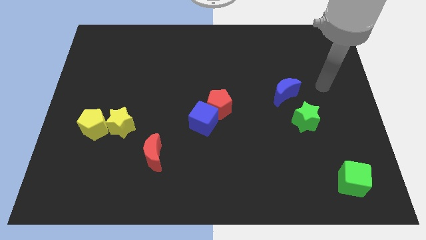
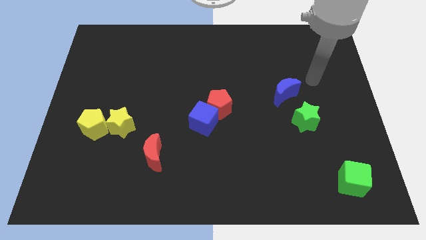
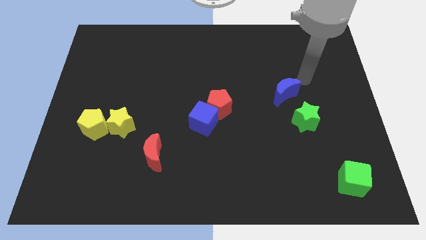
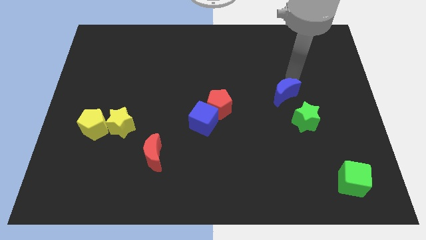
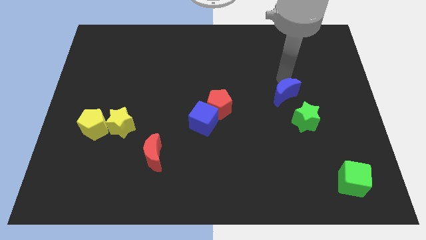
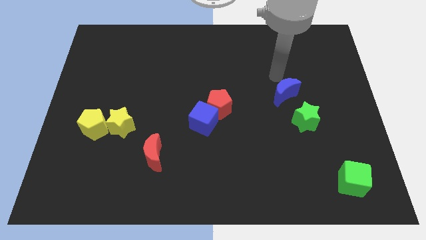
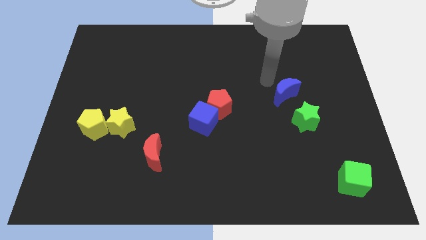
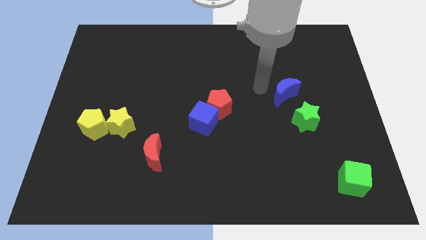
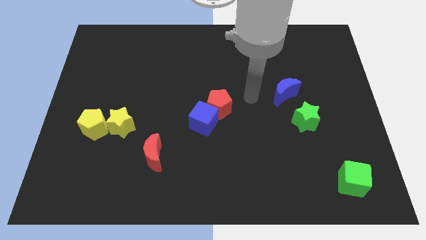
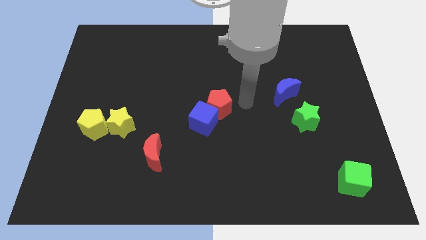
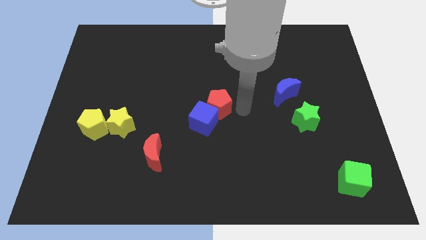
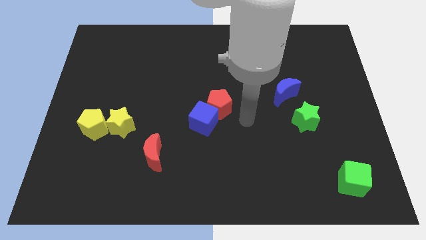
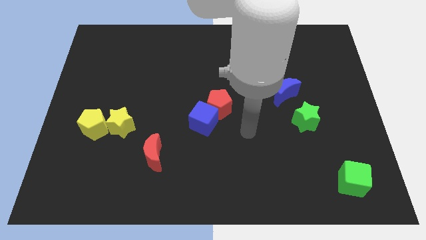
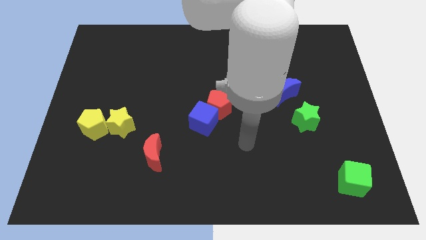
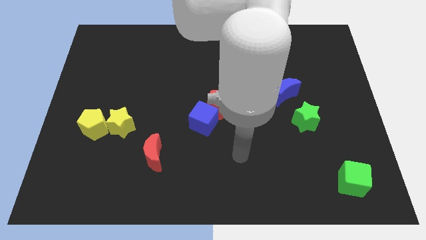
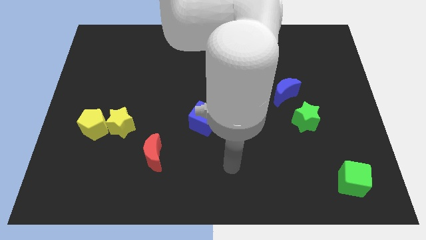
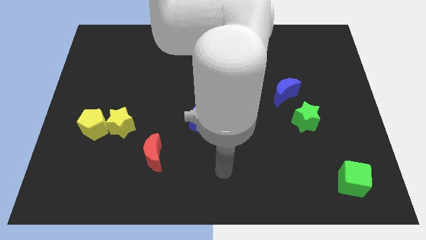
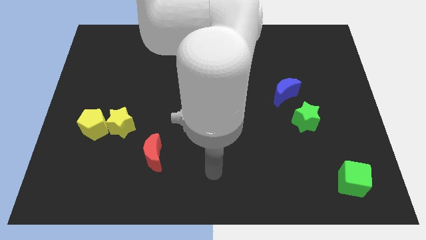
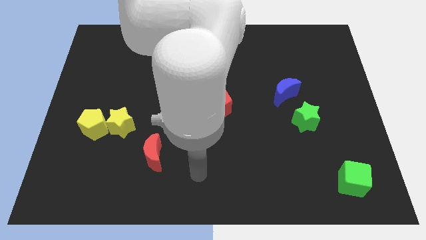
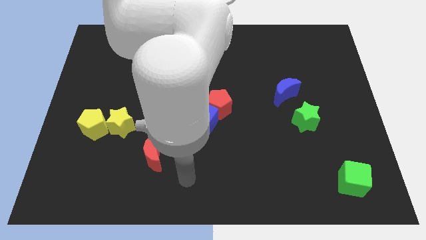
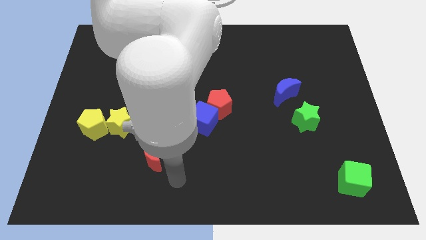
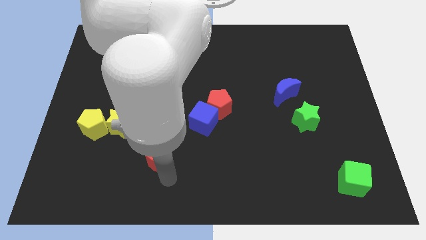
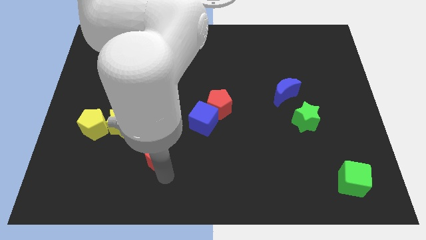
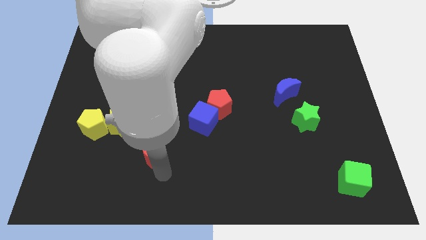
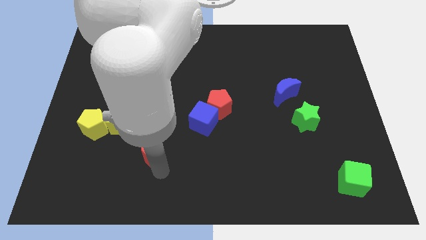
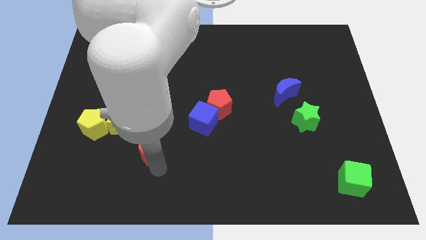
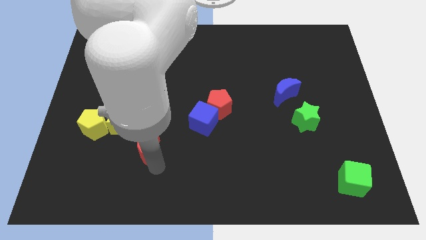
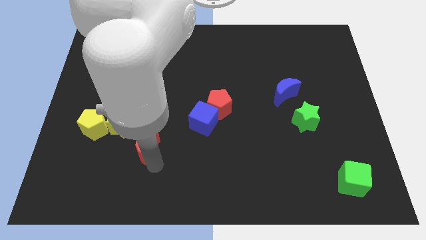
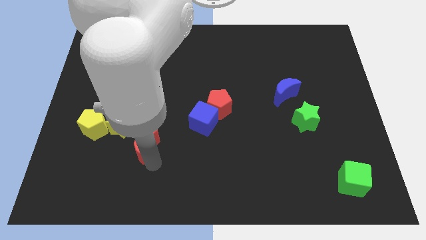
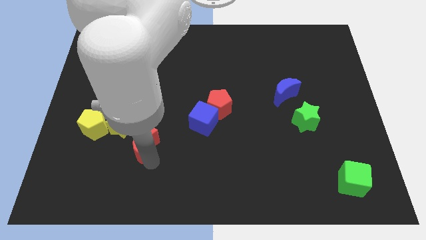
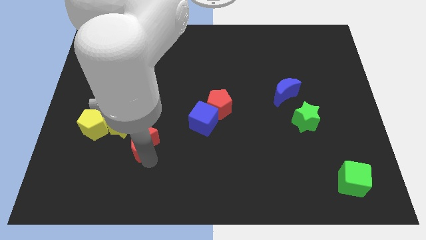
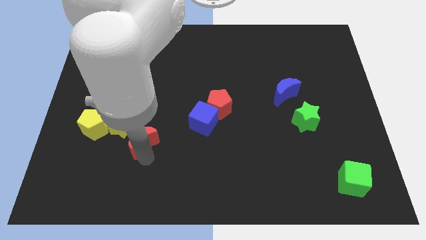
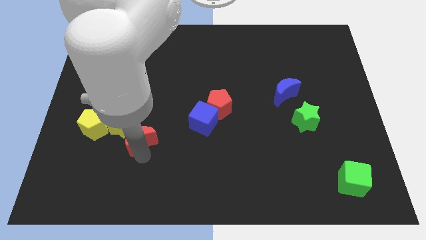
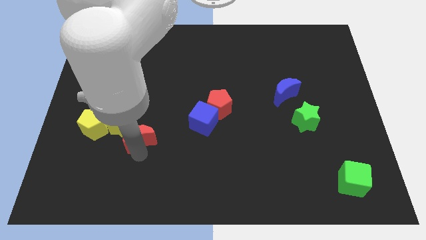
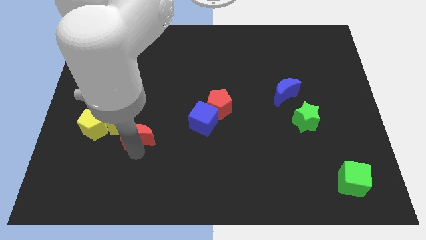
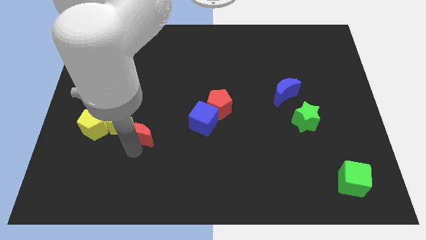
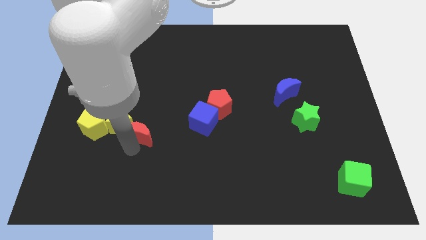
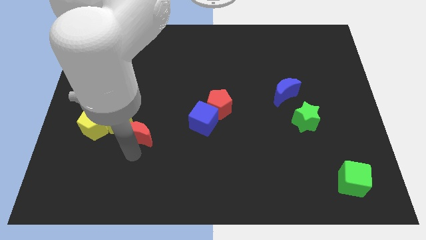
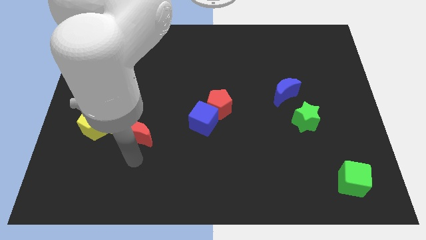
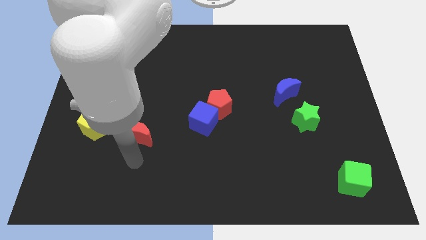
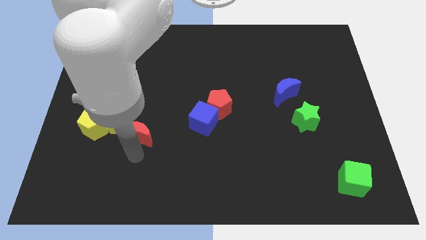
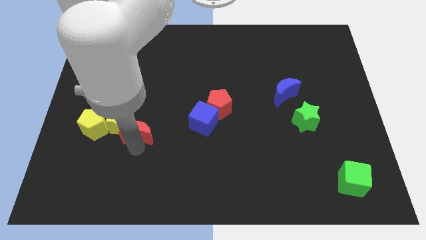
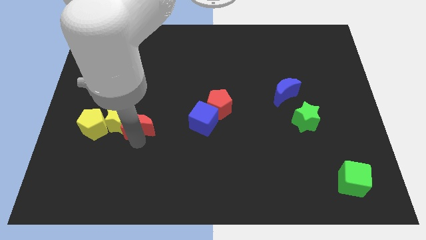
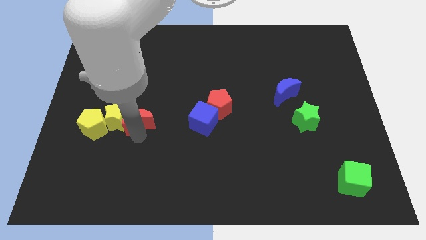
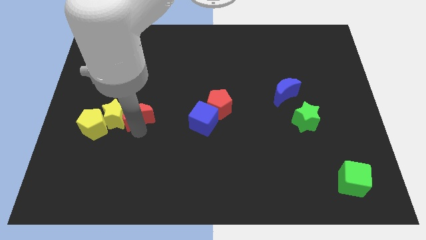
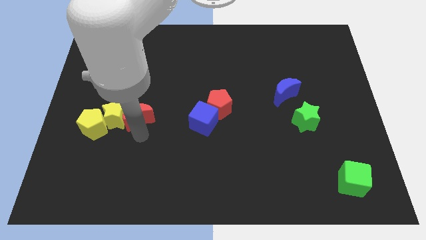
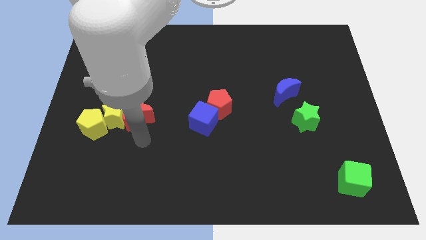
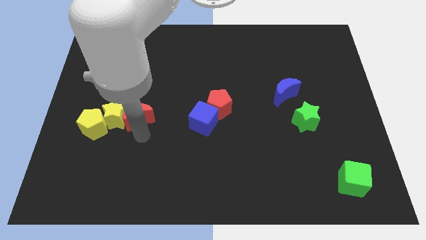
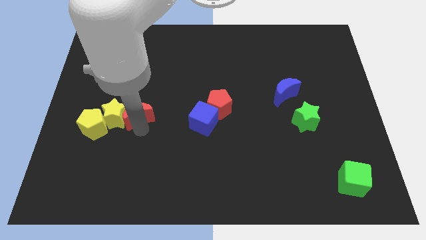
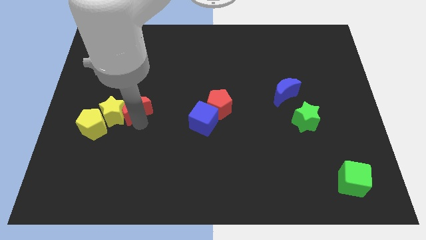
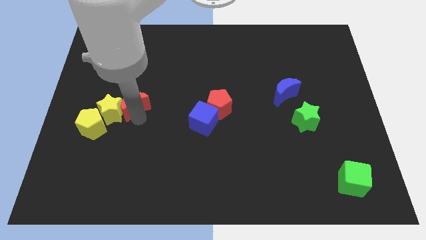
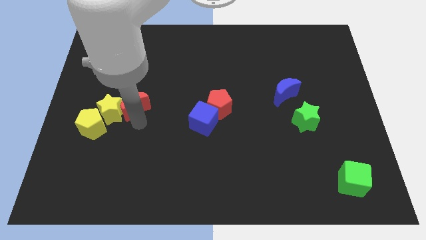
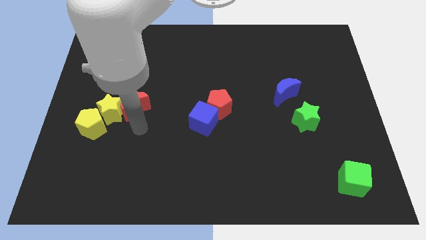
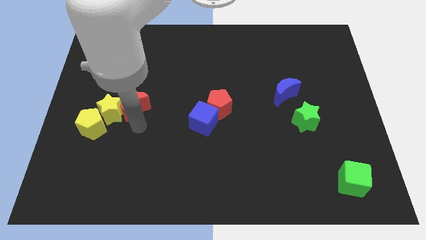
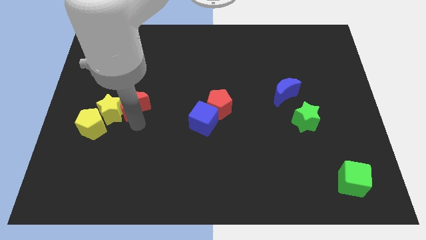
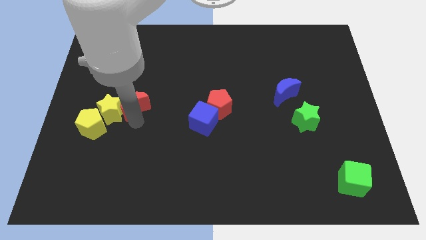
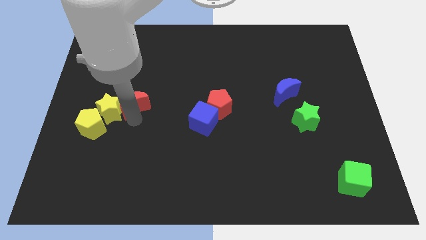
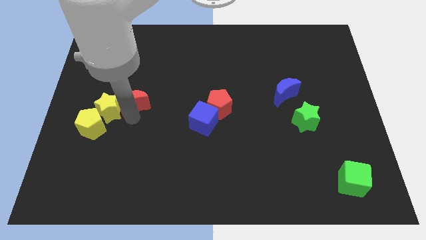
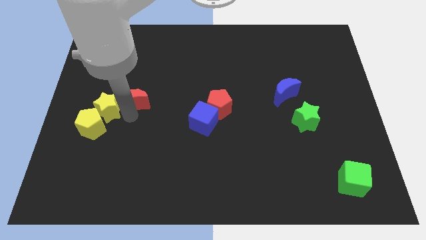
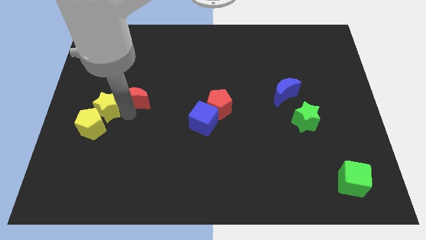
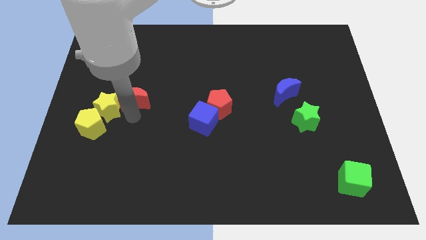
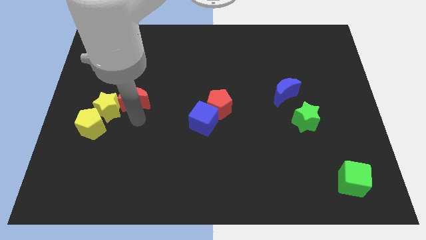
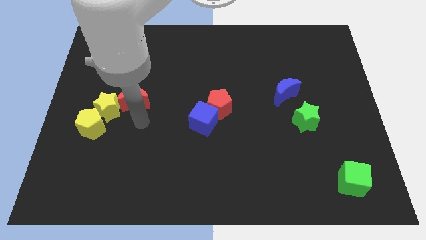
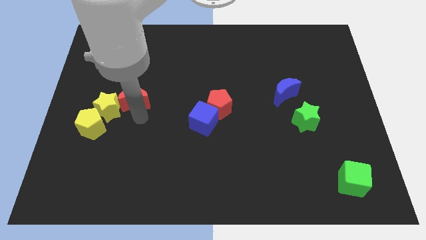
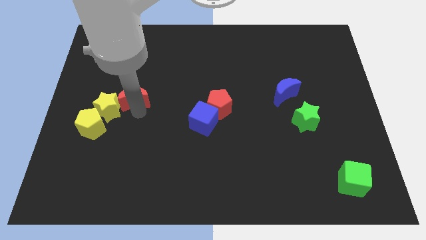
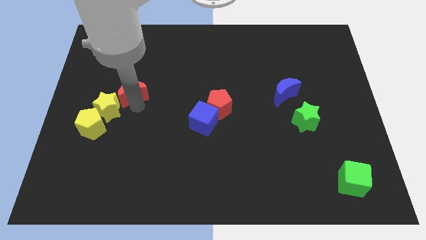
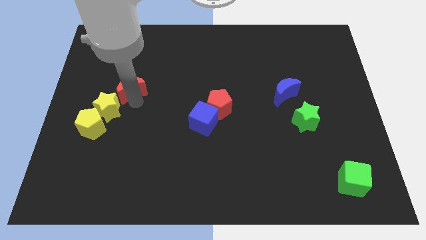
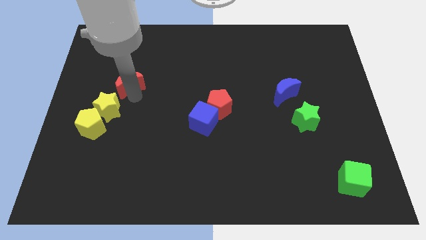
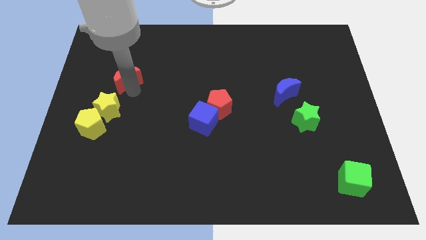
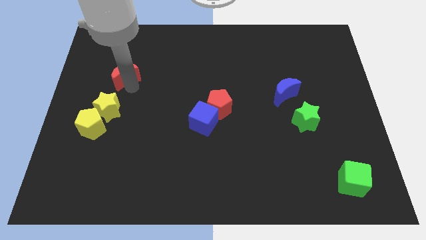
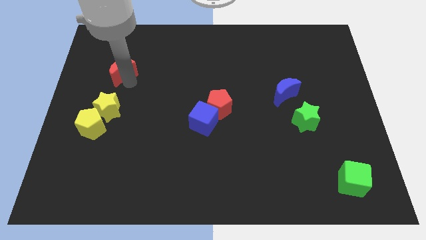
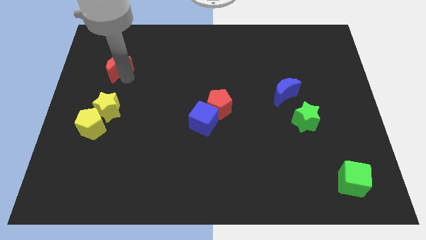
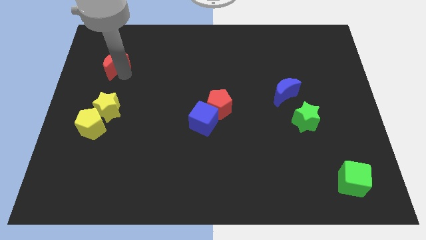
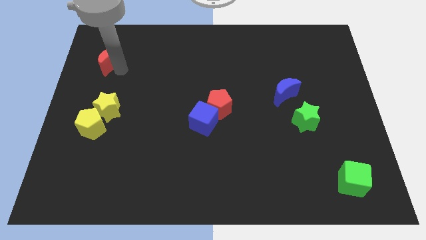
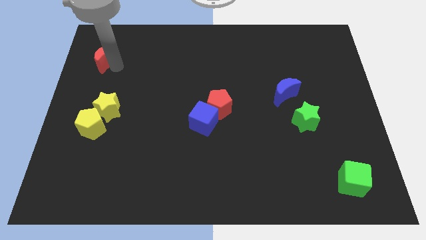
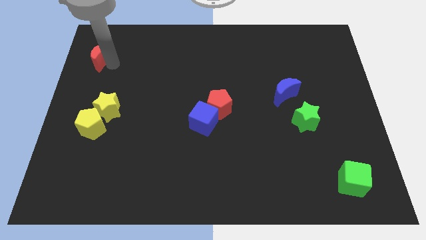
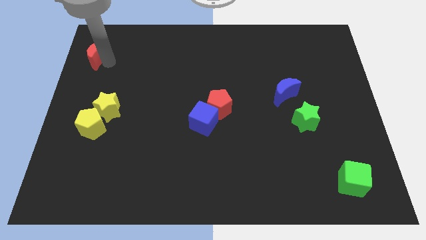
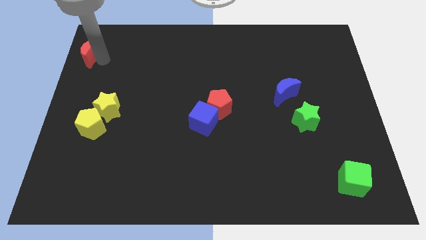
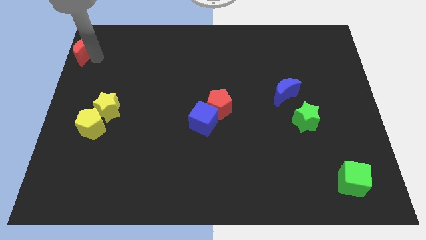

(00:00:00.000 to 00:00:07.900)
move the red moon to the top left of the board

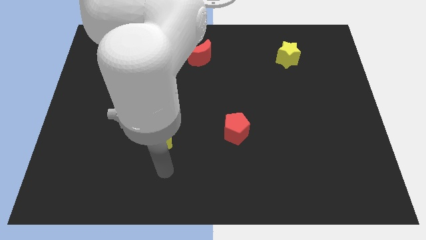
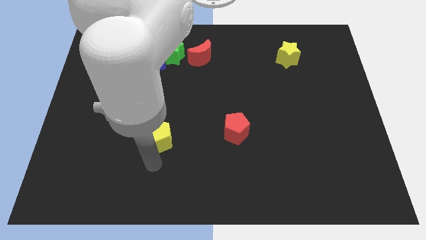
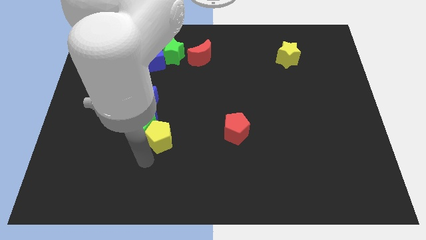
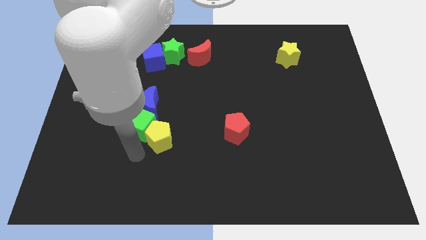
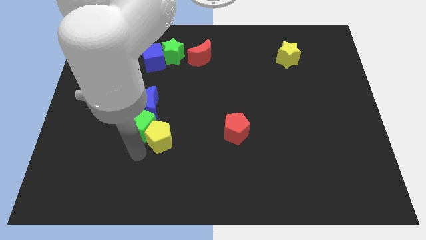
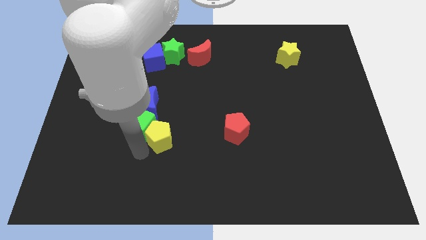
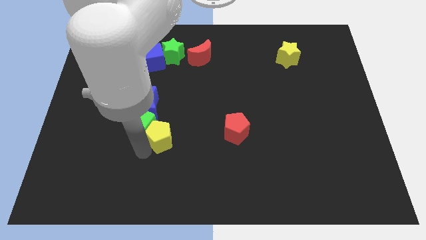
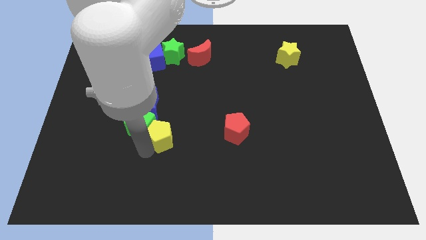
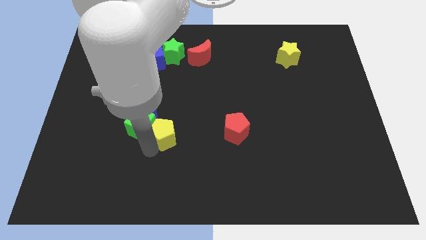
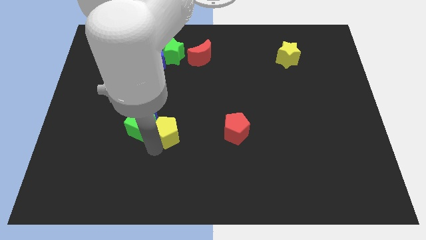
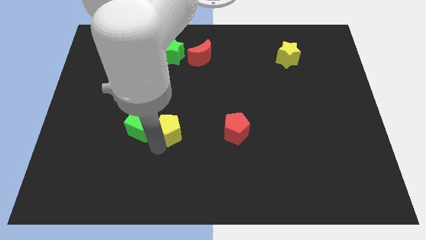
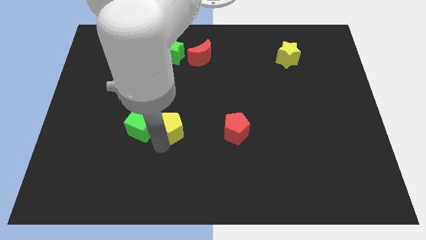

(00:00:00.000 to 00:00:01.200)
put the yellow pentagon to the middle
